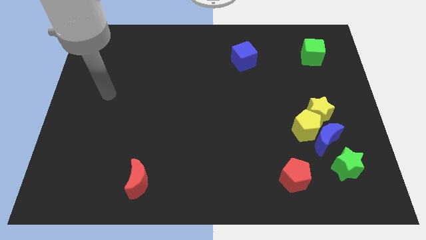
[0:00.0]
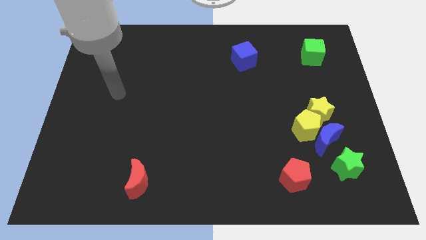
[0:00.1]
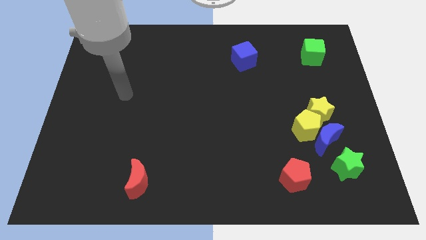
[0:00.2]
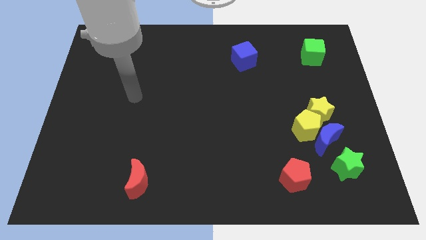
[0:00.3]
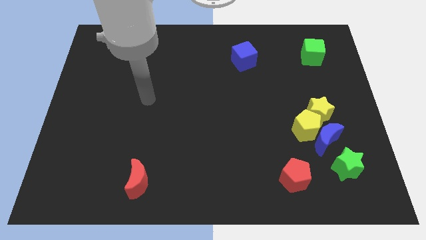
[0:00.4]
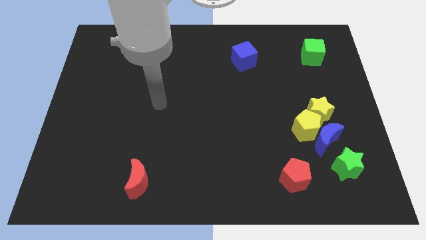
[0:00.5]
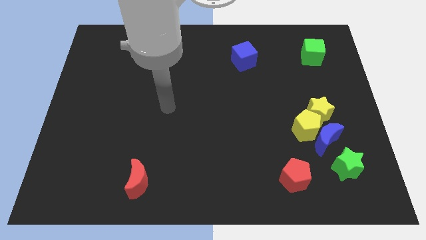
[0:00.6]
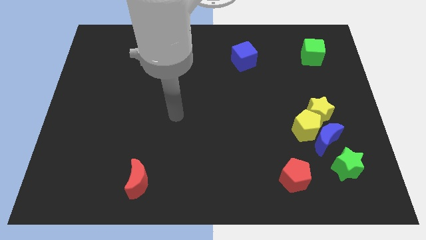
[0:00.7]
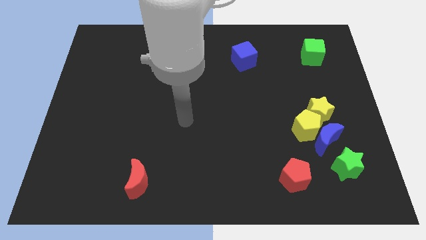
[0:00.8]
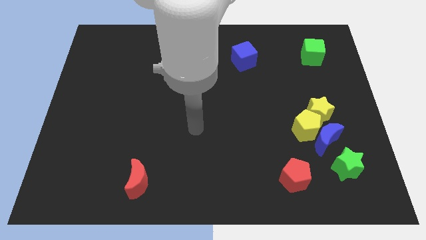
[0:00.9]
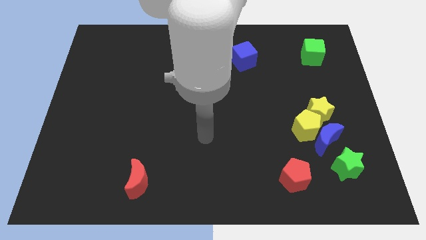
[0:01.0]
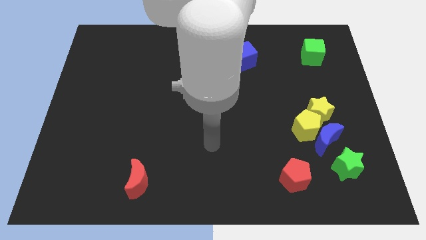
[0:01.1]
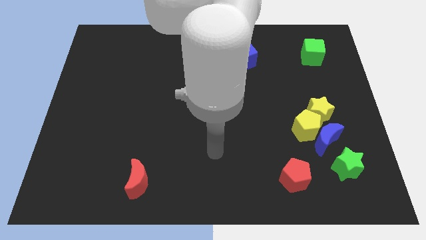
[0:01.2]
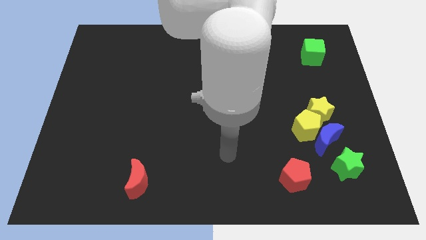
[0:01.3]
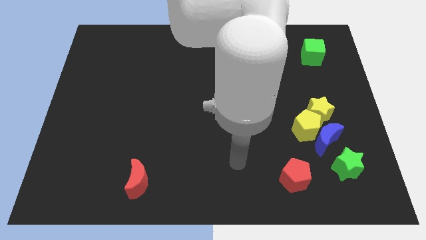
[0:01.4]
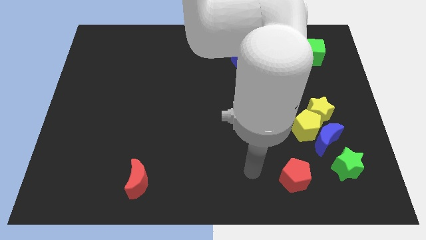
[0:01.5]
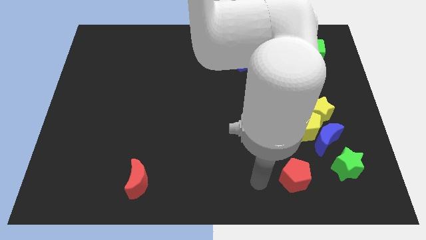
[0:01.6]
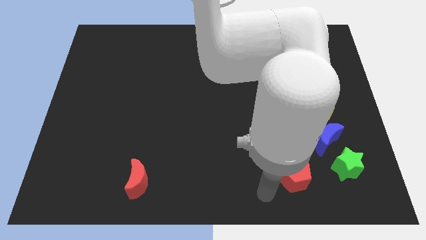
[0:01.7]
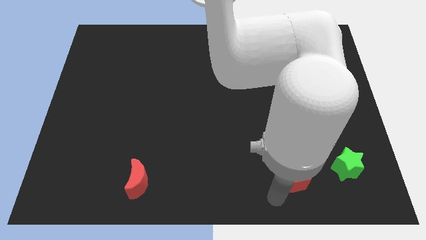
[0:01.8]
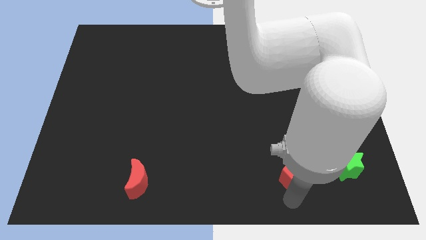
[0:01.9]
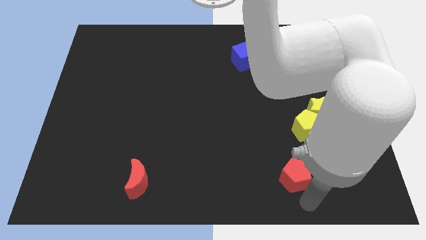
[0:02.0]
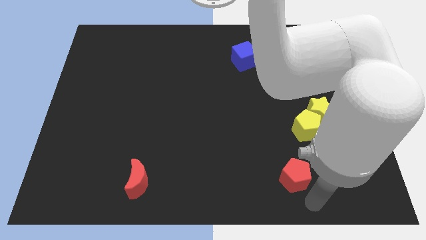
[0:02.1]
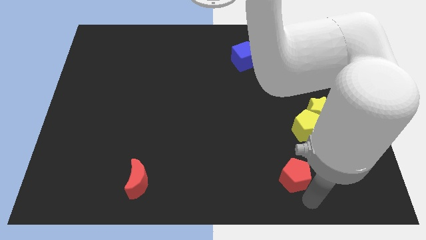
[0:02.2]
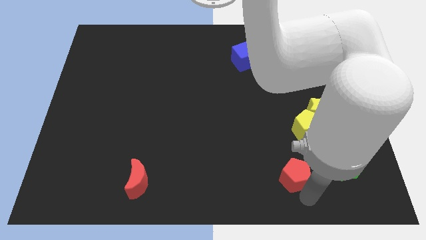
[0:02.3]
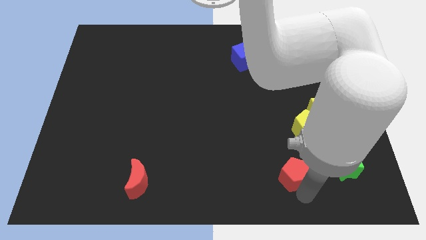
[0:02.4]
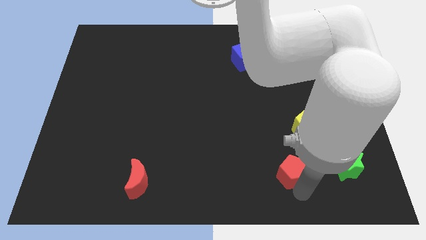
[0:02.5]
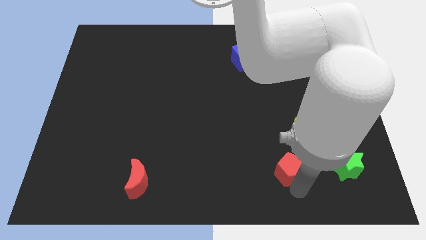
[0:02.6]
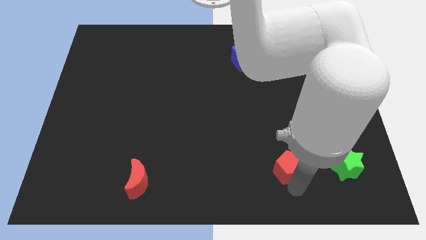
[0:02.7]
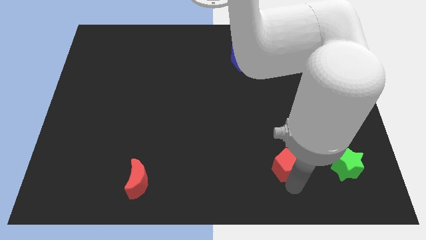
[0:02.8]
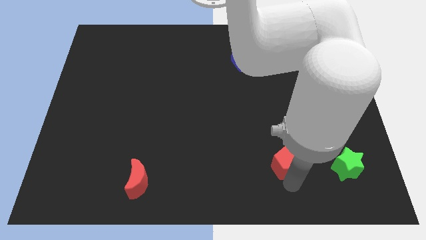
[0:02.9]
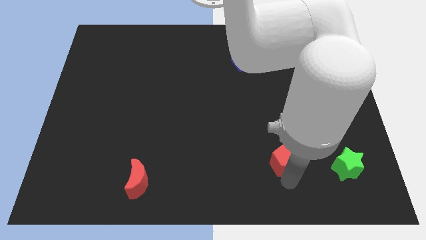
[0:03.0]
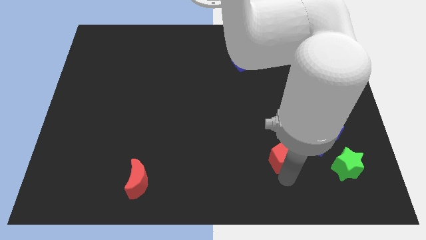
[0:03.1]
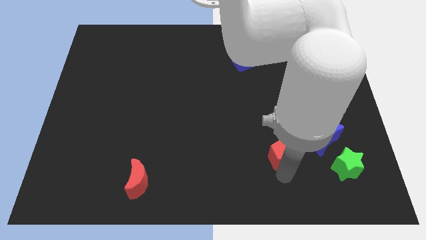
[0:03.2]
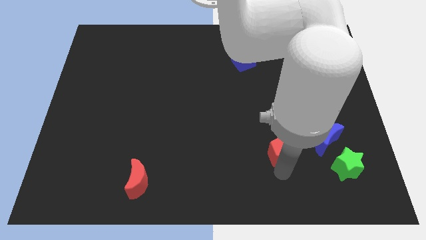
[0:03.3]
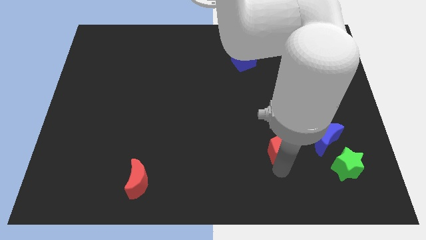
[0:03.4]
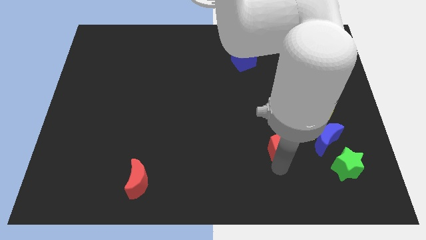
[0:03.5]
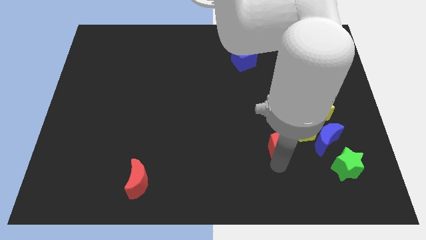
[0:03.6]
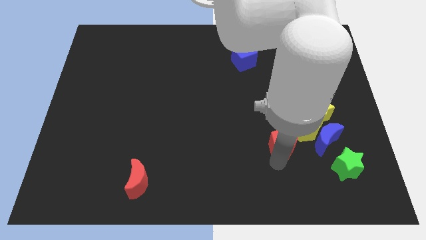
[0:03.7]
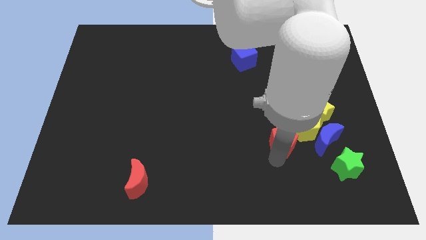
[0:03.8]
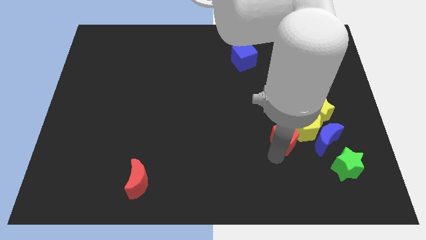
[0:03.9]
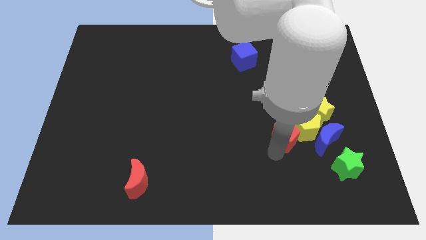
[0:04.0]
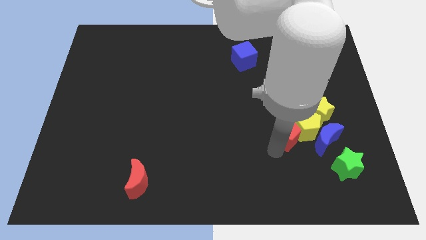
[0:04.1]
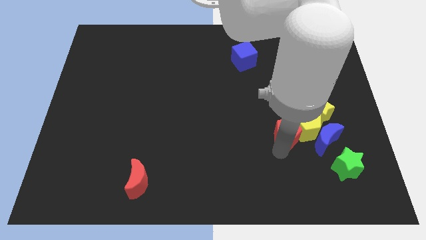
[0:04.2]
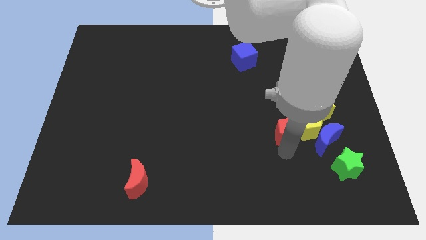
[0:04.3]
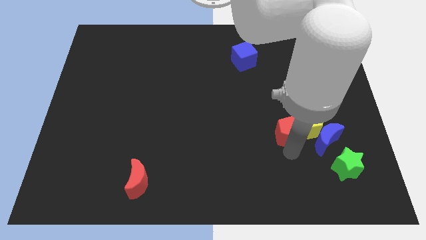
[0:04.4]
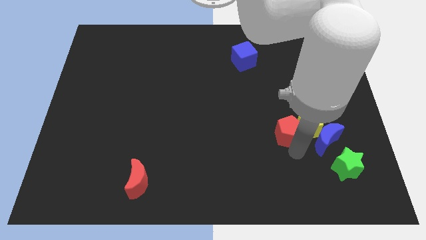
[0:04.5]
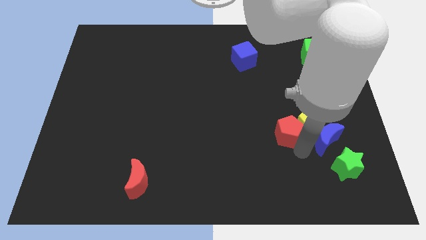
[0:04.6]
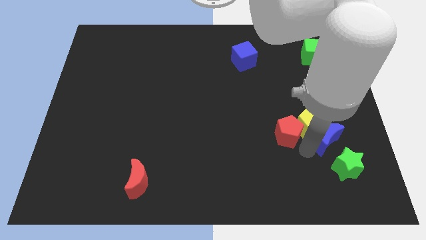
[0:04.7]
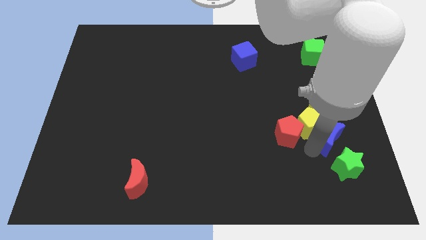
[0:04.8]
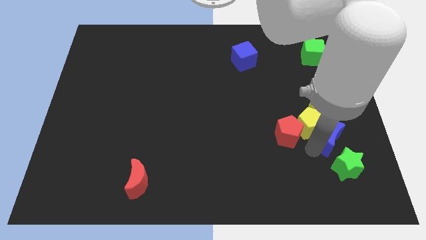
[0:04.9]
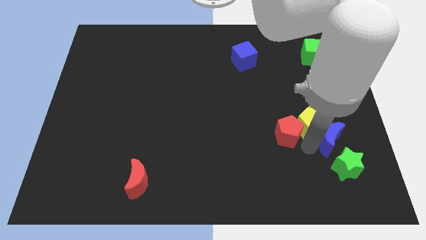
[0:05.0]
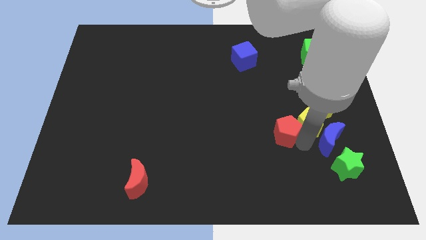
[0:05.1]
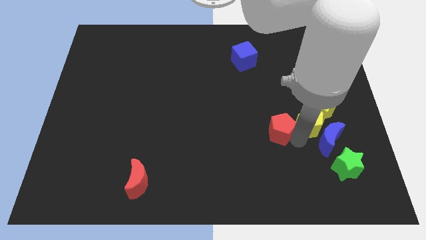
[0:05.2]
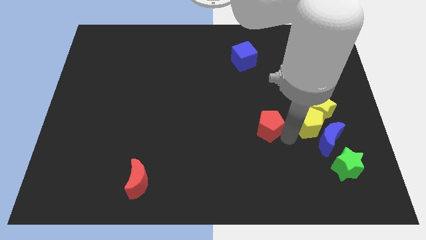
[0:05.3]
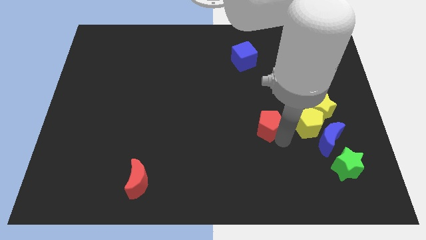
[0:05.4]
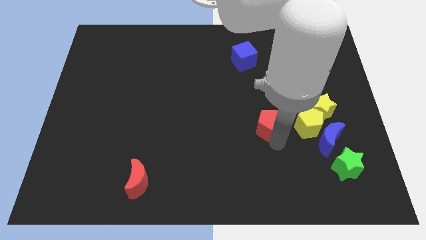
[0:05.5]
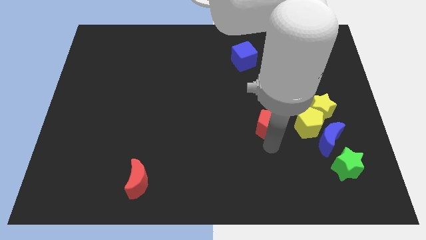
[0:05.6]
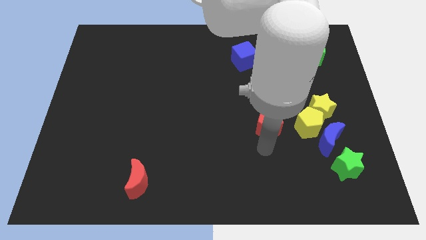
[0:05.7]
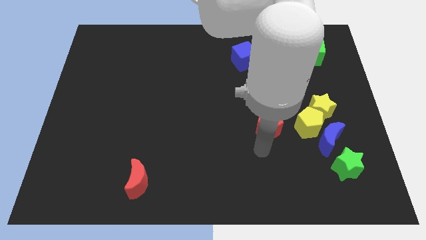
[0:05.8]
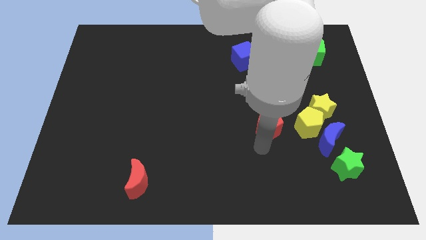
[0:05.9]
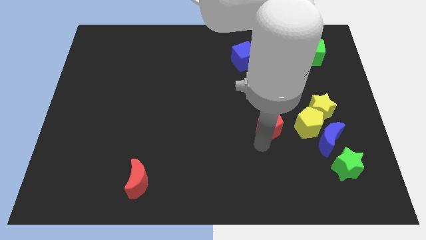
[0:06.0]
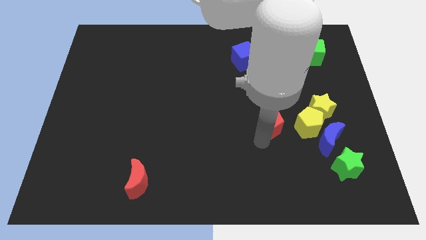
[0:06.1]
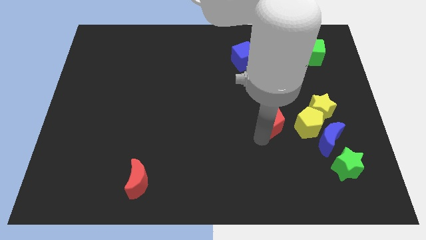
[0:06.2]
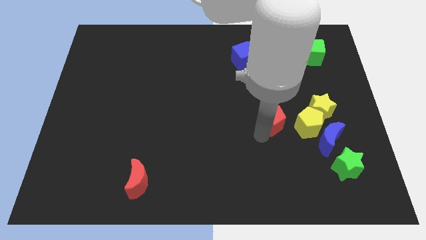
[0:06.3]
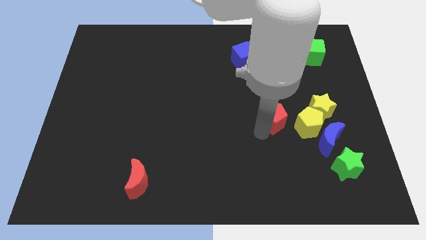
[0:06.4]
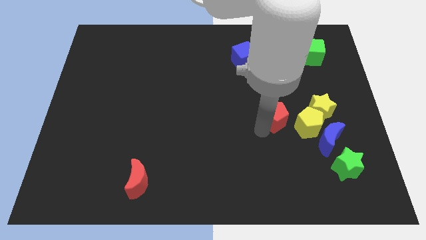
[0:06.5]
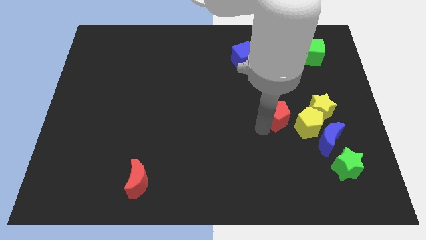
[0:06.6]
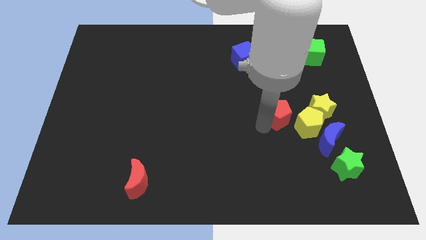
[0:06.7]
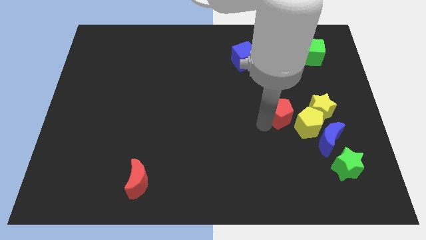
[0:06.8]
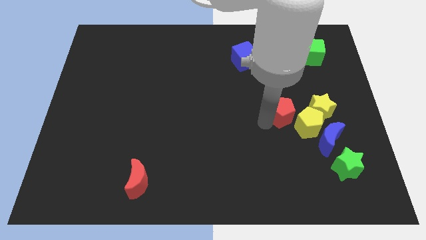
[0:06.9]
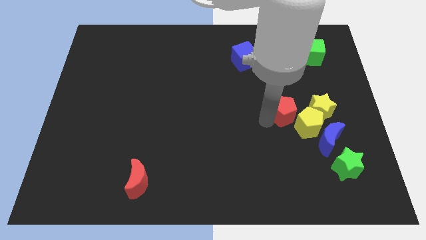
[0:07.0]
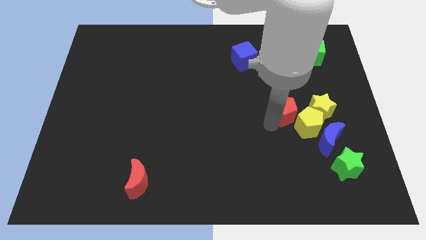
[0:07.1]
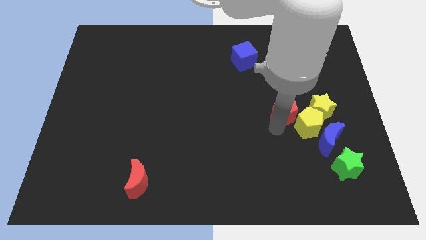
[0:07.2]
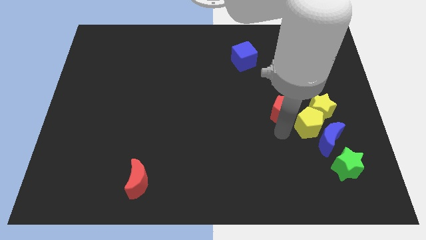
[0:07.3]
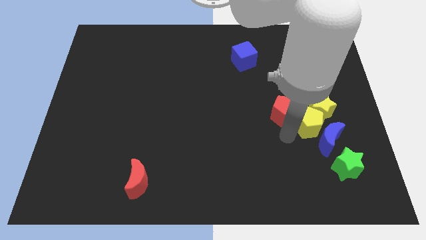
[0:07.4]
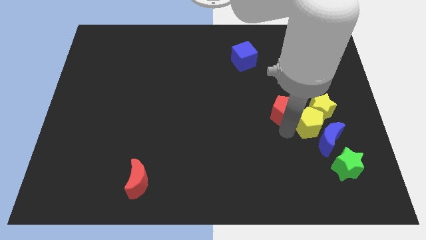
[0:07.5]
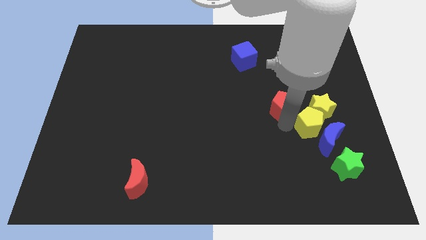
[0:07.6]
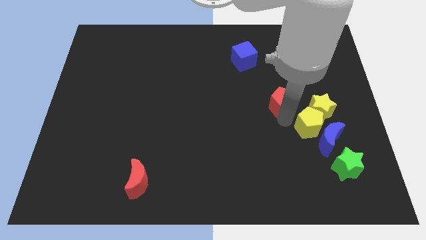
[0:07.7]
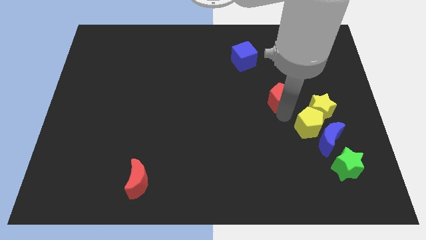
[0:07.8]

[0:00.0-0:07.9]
push the red pentagon up

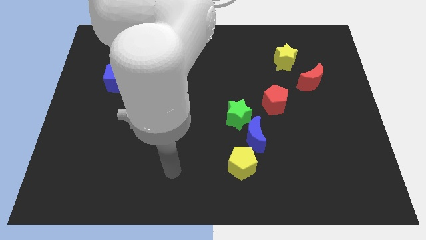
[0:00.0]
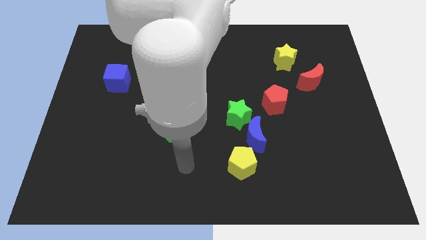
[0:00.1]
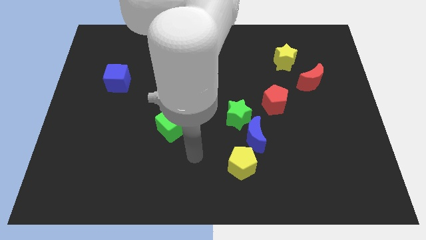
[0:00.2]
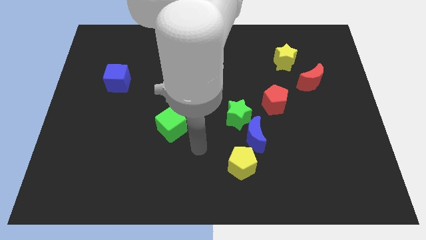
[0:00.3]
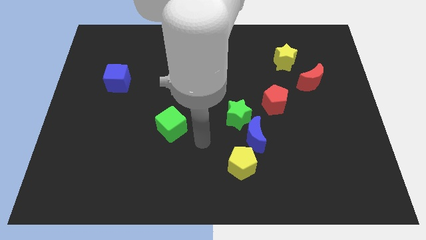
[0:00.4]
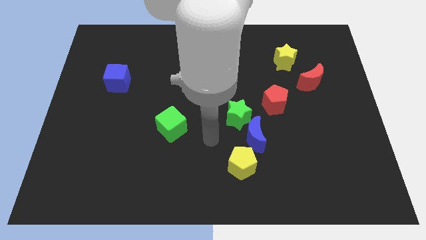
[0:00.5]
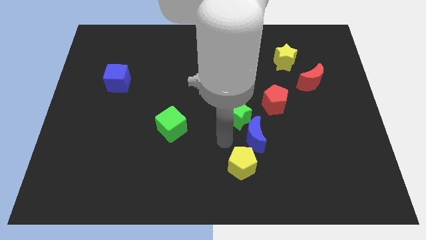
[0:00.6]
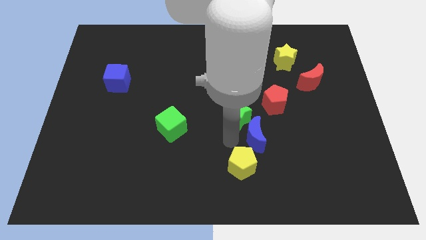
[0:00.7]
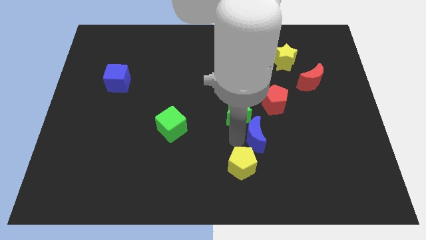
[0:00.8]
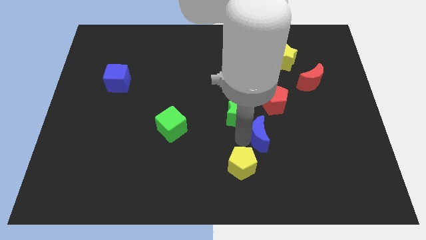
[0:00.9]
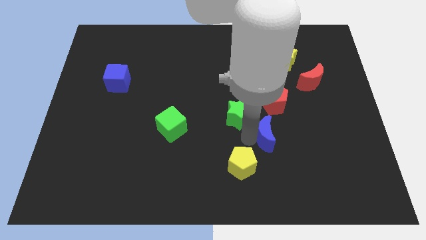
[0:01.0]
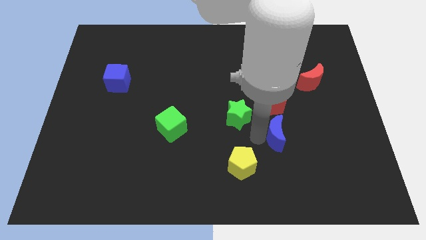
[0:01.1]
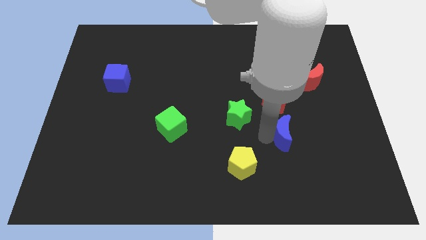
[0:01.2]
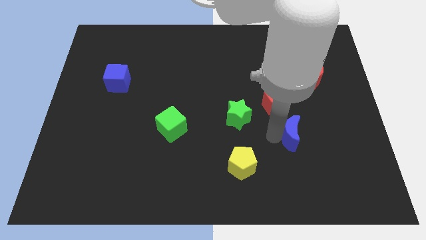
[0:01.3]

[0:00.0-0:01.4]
slide the blue moon slightly to the right
